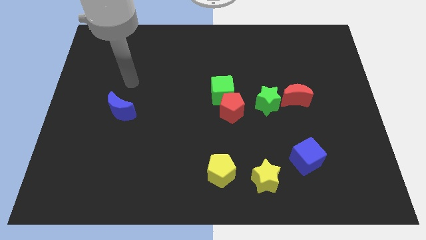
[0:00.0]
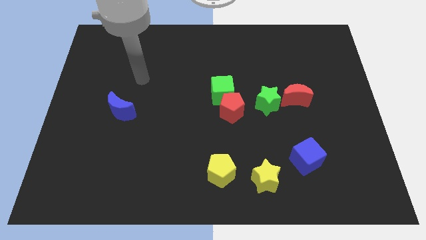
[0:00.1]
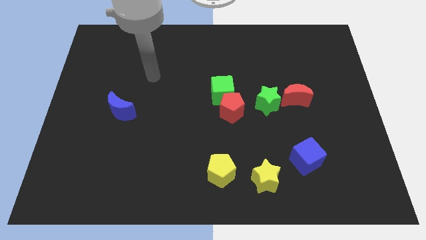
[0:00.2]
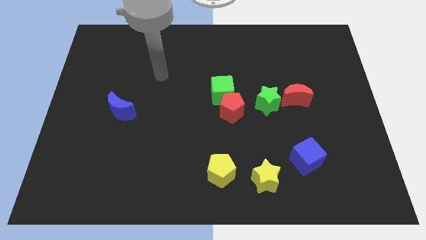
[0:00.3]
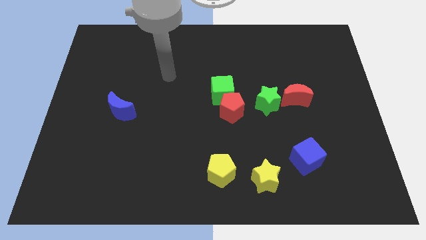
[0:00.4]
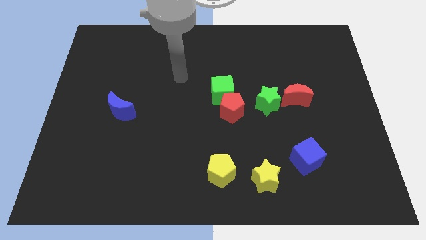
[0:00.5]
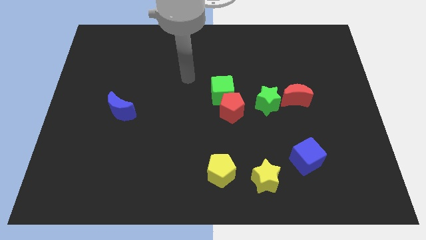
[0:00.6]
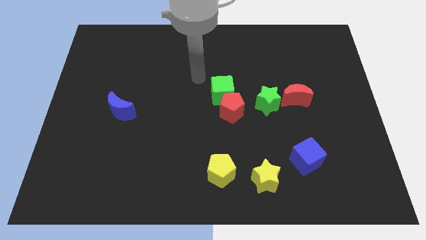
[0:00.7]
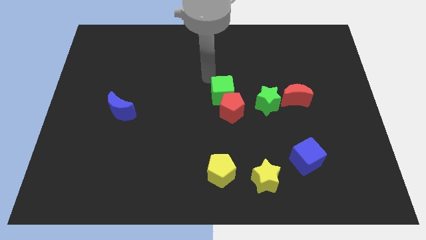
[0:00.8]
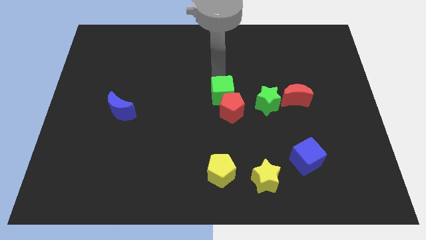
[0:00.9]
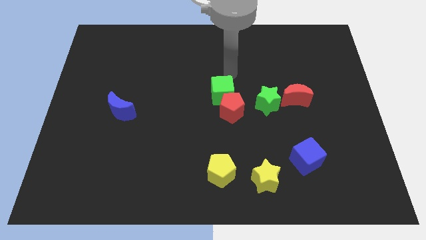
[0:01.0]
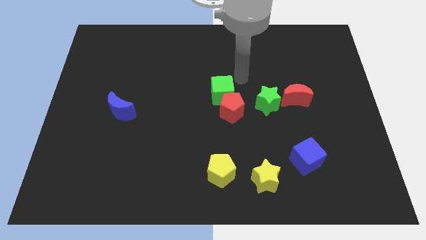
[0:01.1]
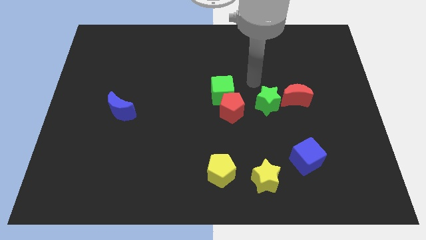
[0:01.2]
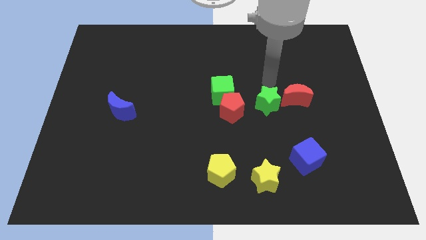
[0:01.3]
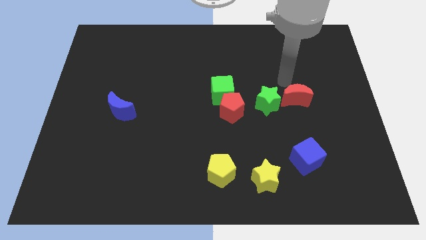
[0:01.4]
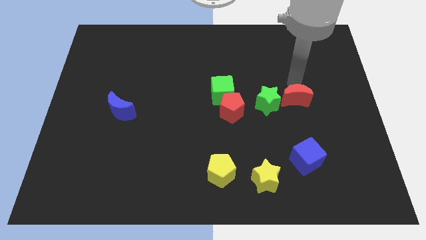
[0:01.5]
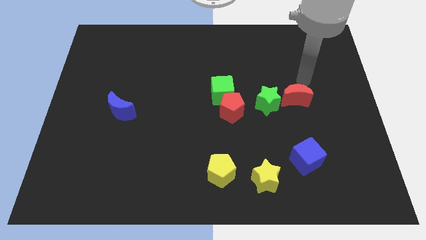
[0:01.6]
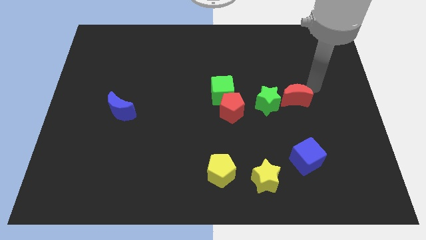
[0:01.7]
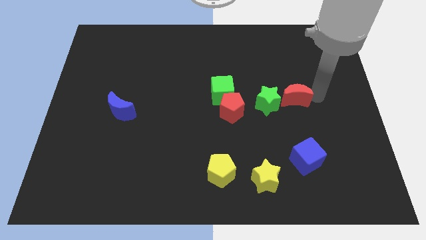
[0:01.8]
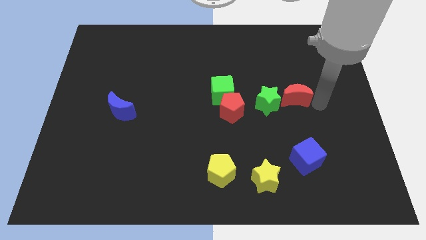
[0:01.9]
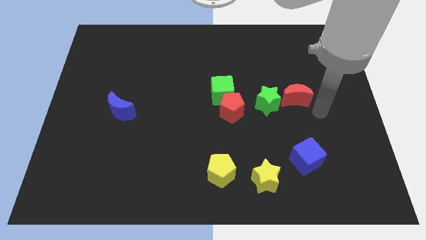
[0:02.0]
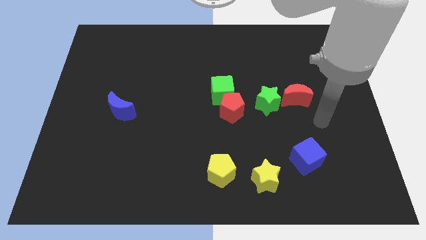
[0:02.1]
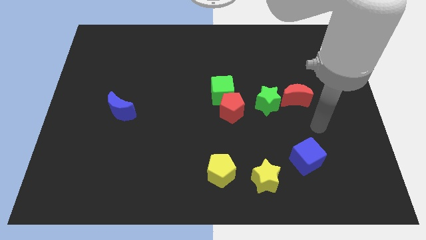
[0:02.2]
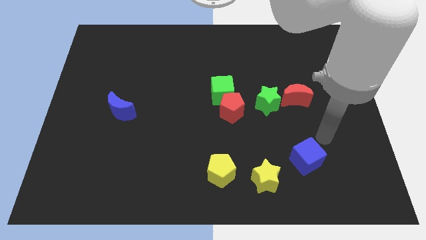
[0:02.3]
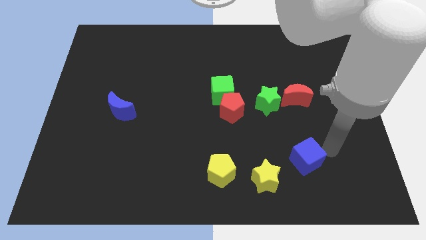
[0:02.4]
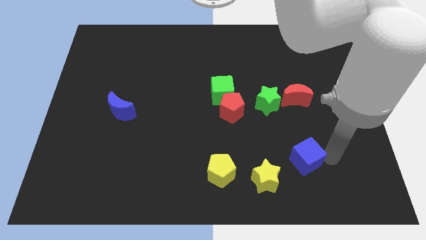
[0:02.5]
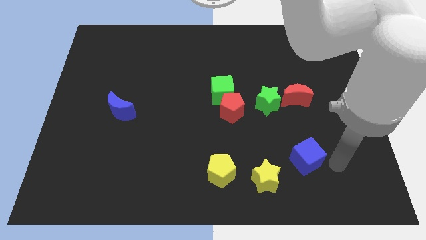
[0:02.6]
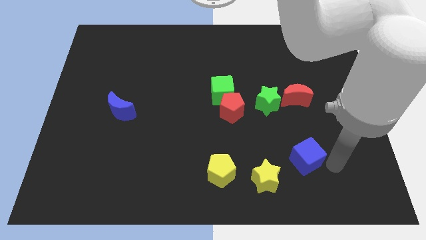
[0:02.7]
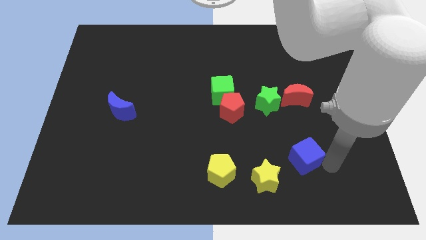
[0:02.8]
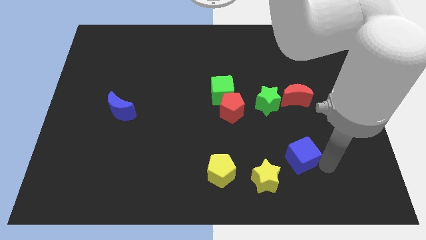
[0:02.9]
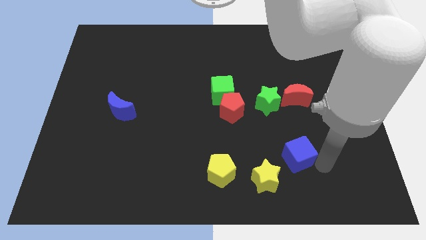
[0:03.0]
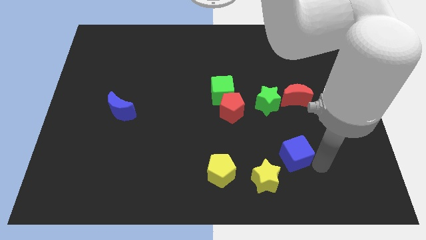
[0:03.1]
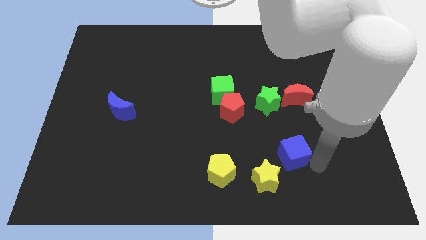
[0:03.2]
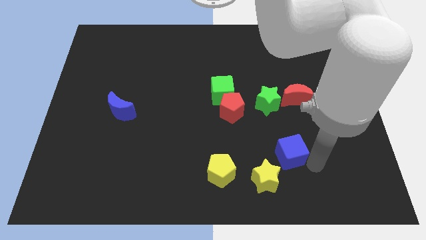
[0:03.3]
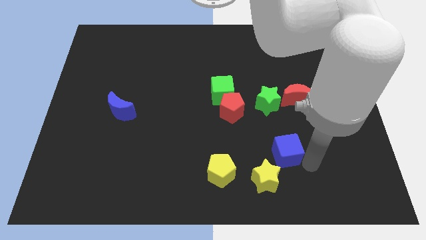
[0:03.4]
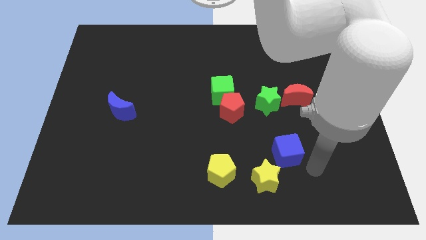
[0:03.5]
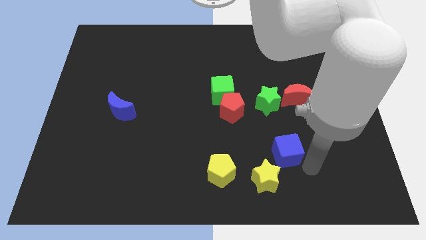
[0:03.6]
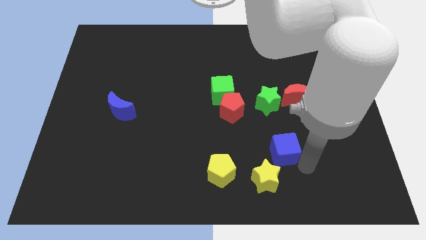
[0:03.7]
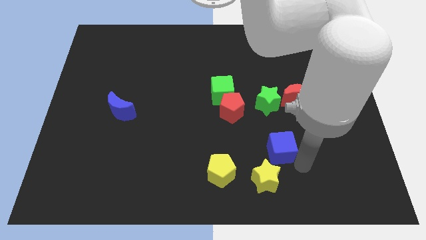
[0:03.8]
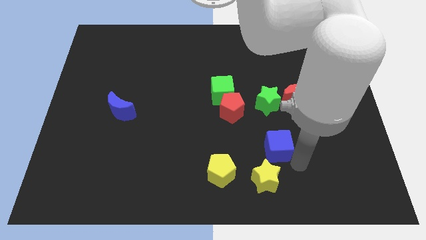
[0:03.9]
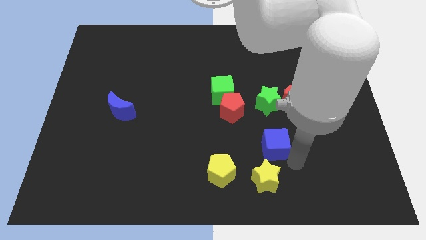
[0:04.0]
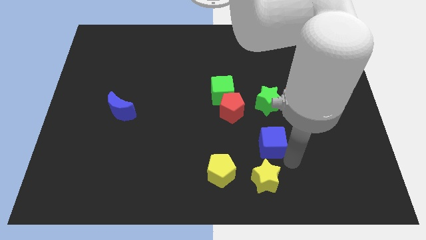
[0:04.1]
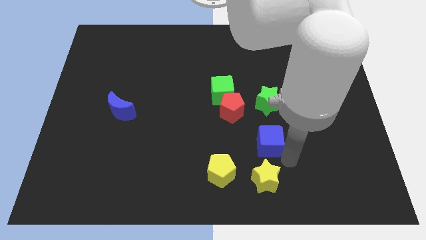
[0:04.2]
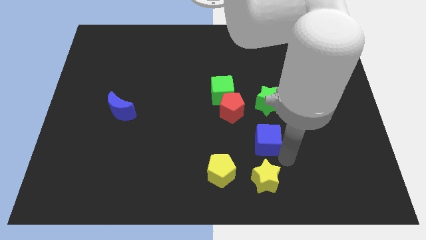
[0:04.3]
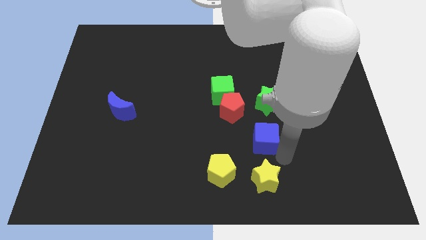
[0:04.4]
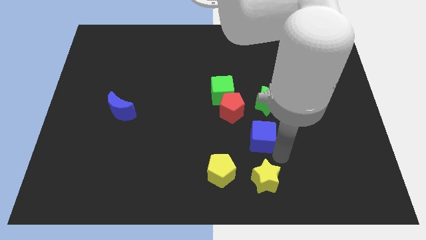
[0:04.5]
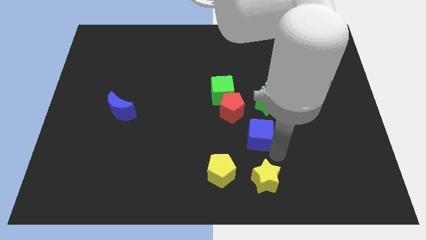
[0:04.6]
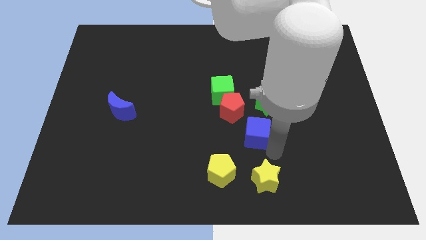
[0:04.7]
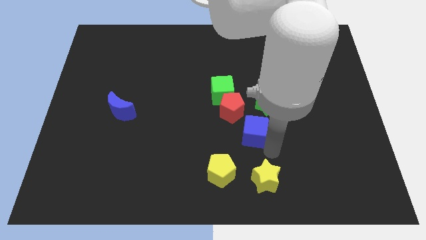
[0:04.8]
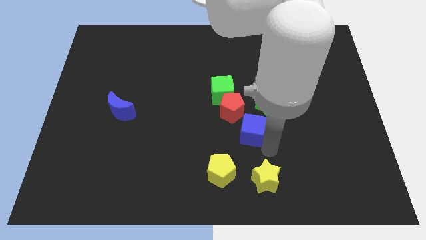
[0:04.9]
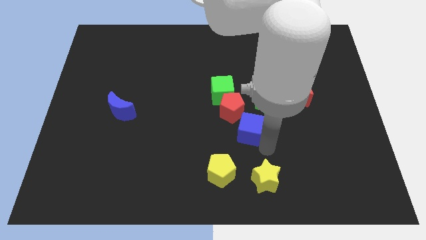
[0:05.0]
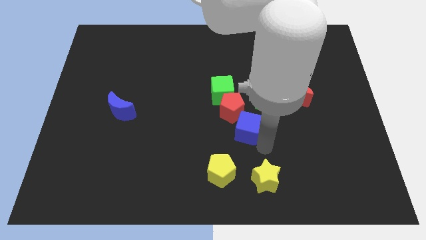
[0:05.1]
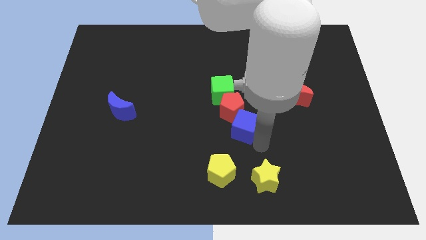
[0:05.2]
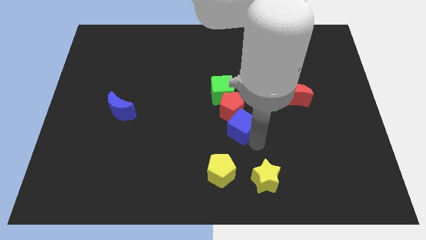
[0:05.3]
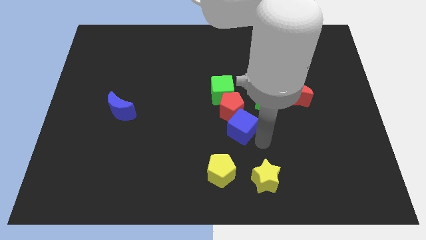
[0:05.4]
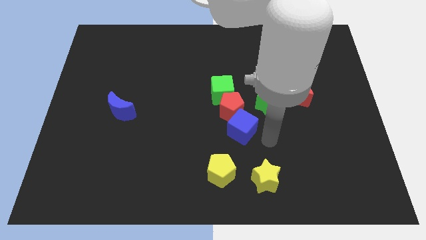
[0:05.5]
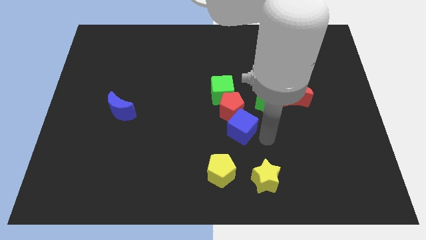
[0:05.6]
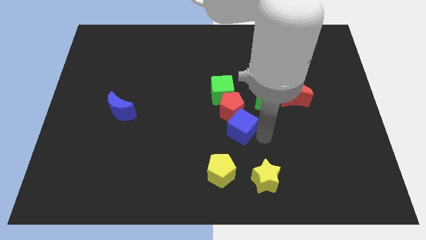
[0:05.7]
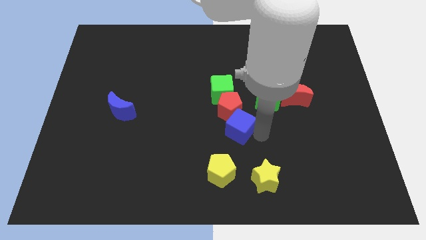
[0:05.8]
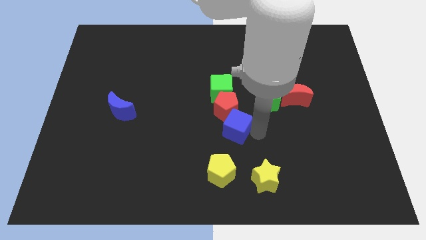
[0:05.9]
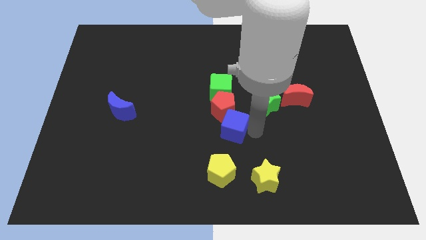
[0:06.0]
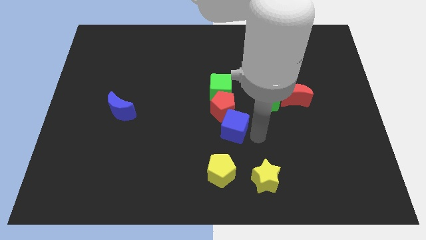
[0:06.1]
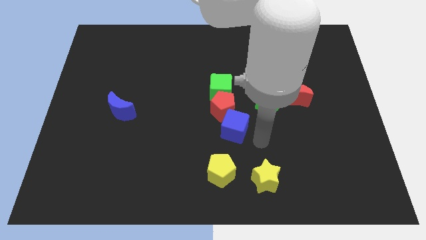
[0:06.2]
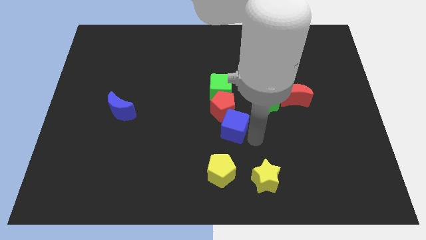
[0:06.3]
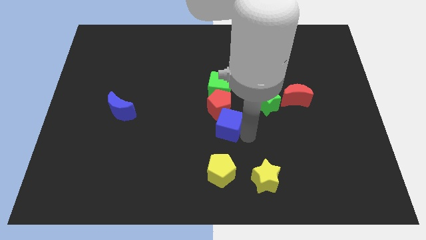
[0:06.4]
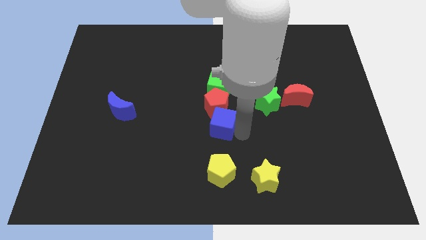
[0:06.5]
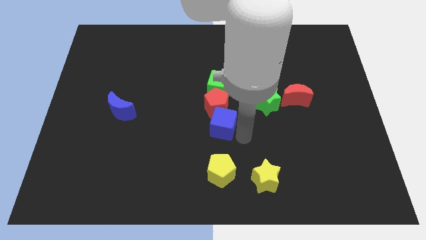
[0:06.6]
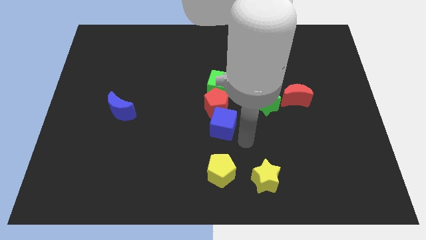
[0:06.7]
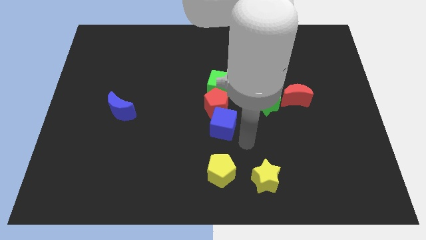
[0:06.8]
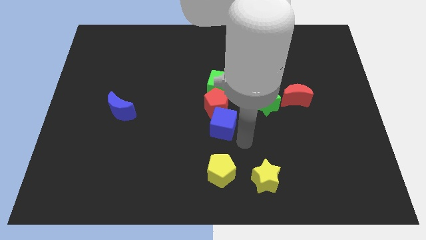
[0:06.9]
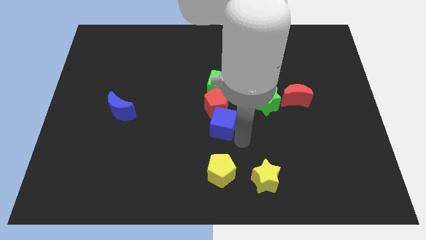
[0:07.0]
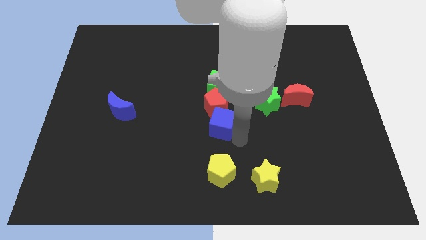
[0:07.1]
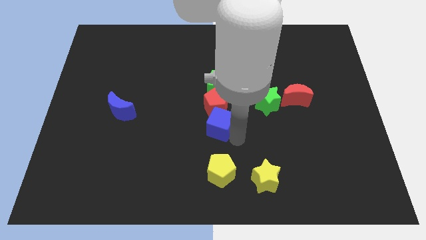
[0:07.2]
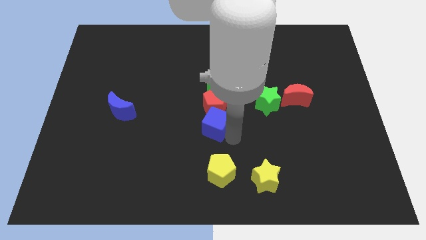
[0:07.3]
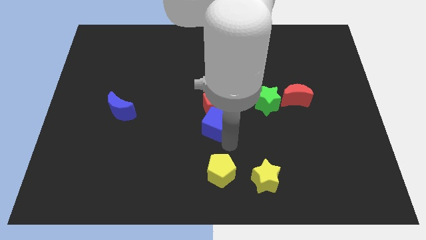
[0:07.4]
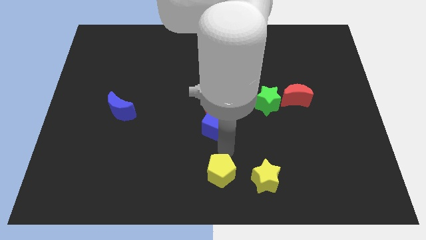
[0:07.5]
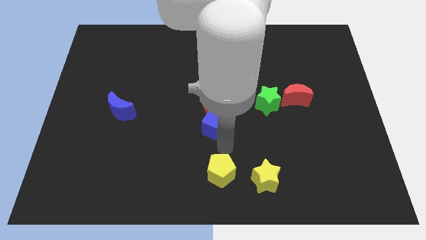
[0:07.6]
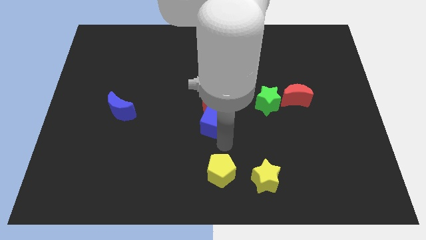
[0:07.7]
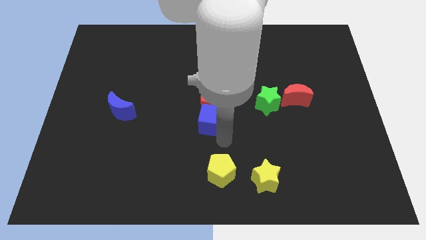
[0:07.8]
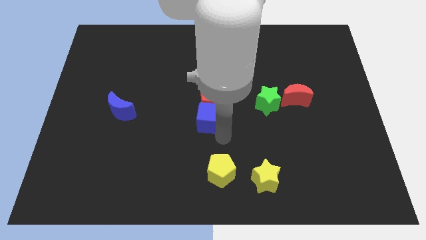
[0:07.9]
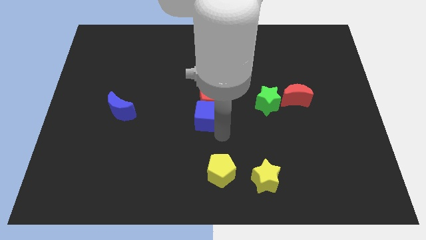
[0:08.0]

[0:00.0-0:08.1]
push the blue cube upwards and to the left
